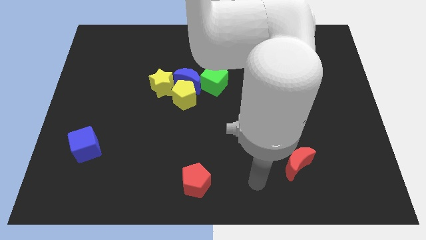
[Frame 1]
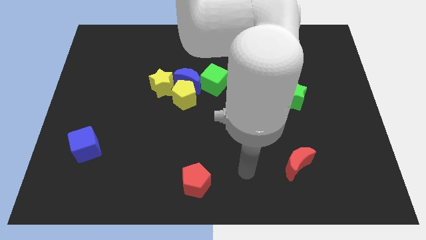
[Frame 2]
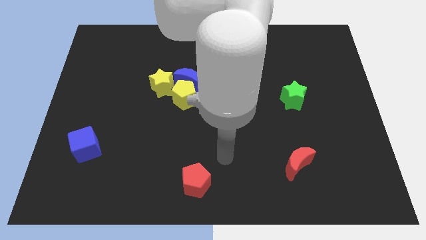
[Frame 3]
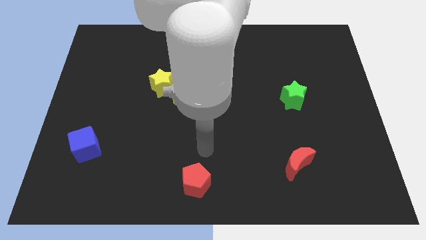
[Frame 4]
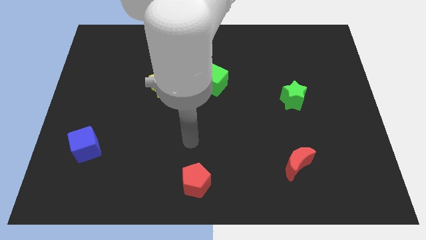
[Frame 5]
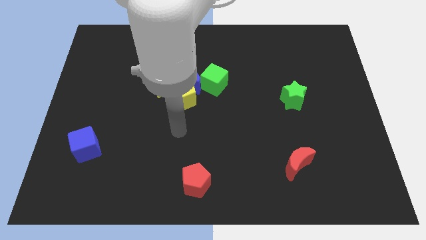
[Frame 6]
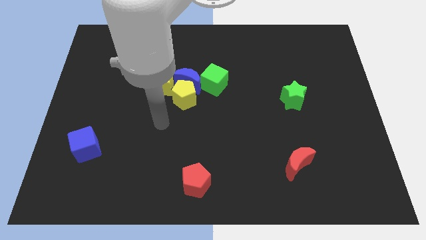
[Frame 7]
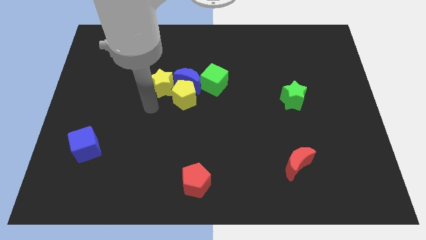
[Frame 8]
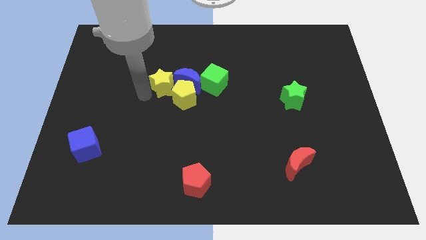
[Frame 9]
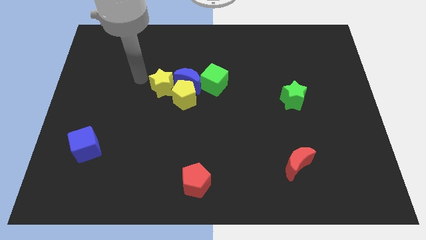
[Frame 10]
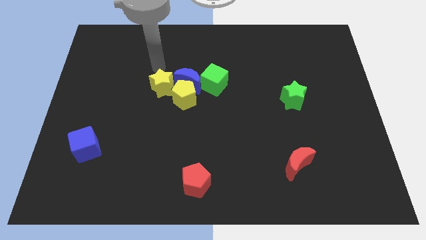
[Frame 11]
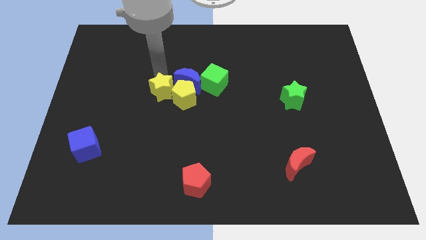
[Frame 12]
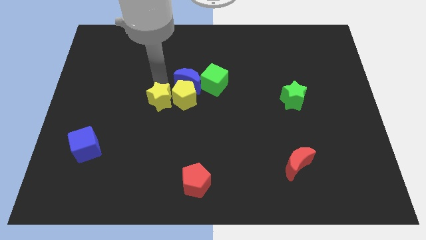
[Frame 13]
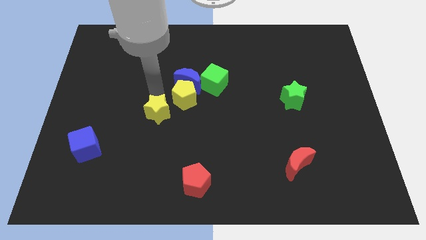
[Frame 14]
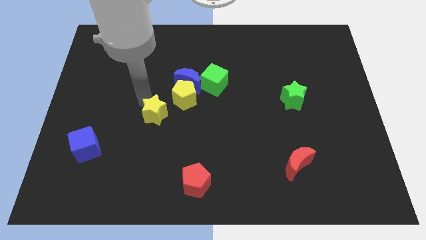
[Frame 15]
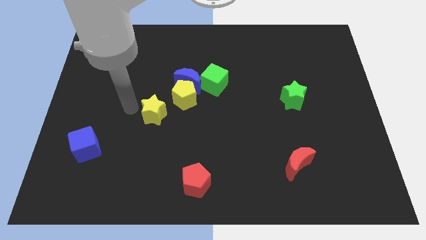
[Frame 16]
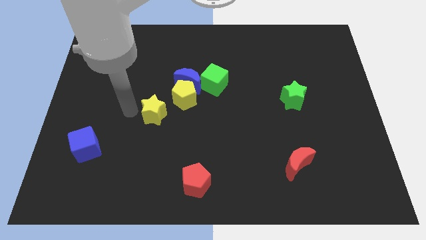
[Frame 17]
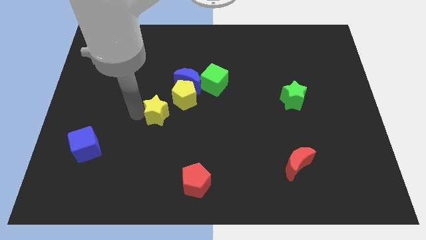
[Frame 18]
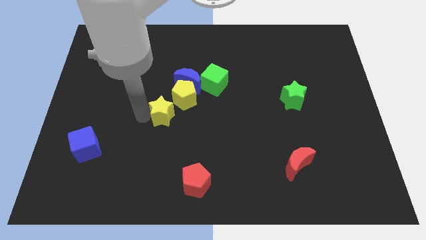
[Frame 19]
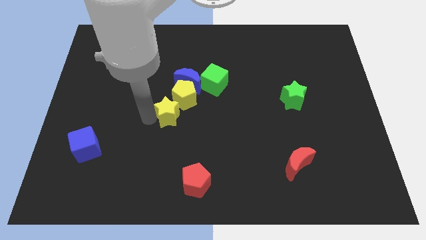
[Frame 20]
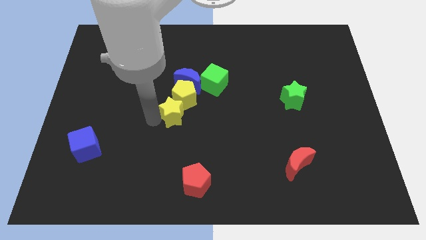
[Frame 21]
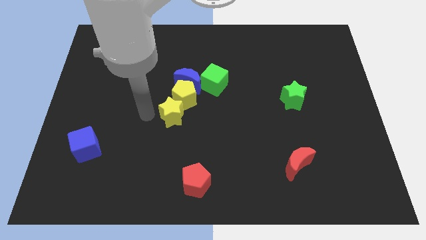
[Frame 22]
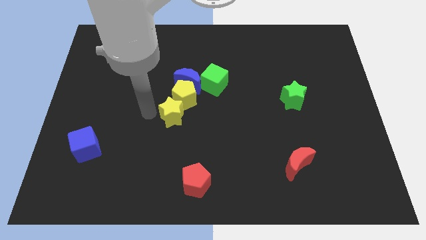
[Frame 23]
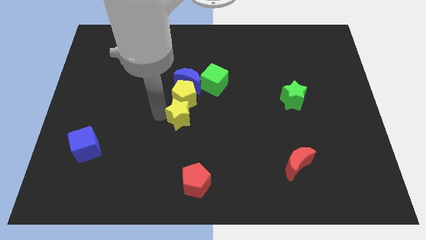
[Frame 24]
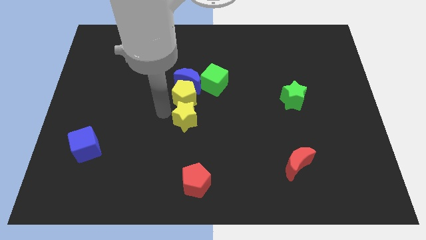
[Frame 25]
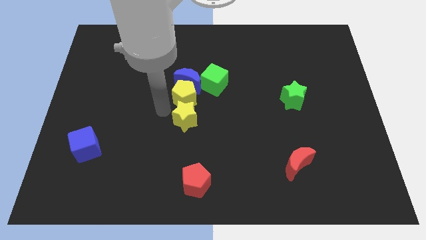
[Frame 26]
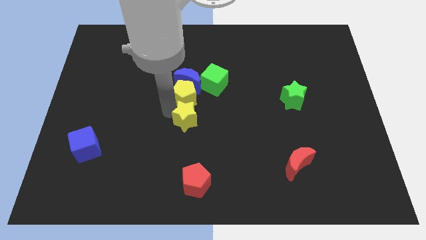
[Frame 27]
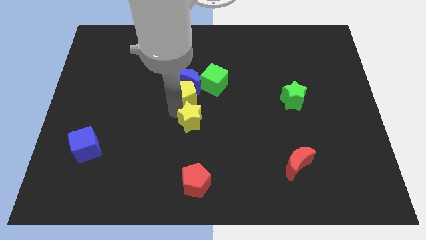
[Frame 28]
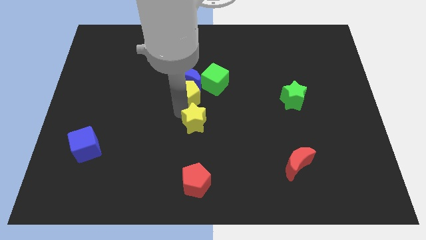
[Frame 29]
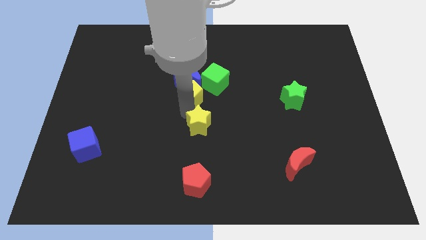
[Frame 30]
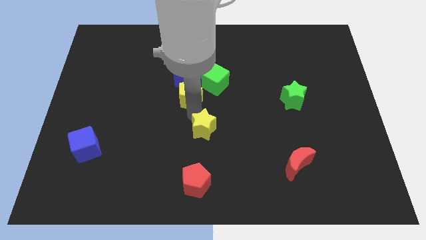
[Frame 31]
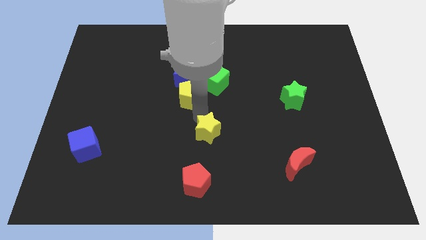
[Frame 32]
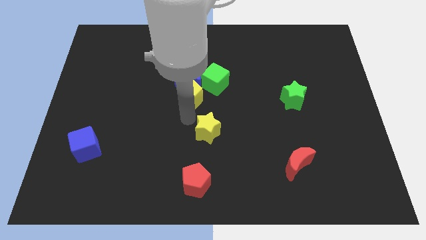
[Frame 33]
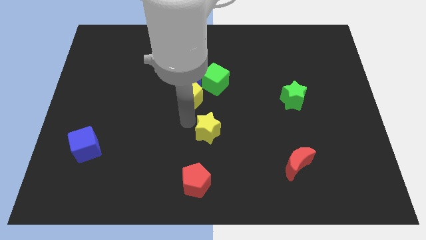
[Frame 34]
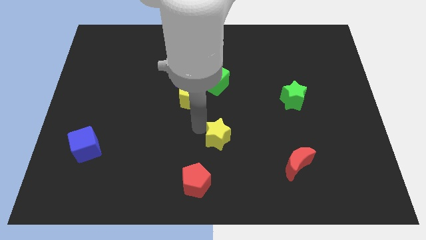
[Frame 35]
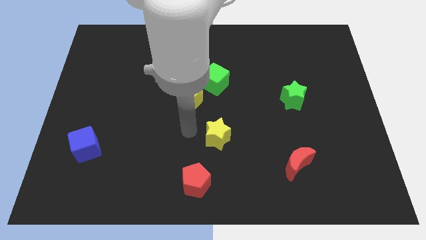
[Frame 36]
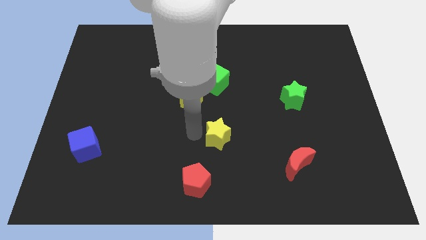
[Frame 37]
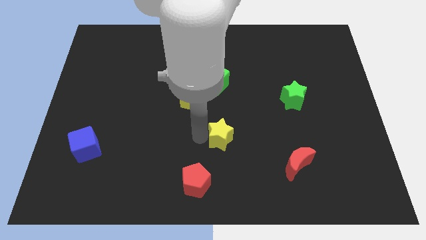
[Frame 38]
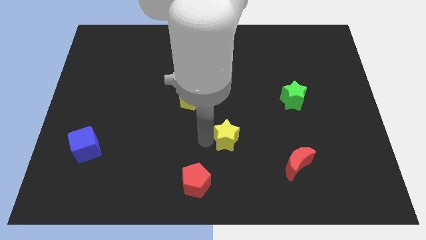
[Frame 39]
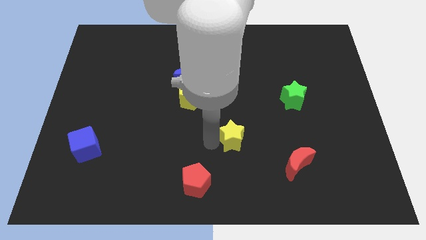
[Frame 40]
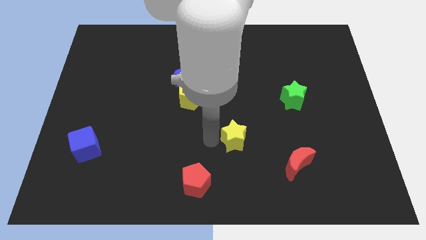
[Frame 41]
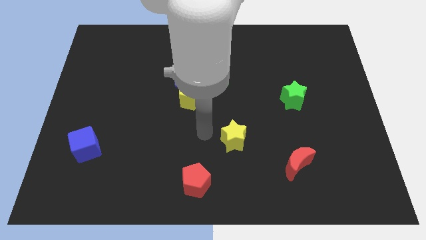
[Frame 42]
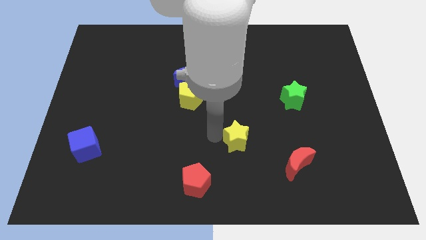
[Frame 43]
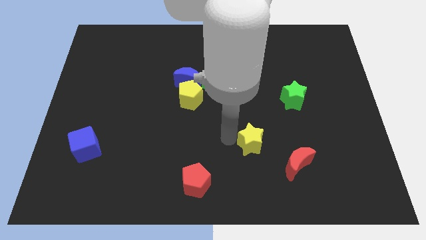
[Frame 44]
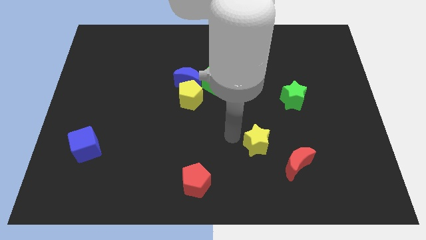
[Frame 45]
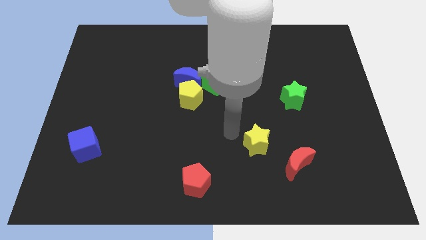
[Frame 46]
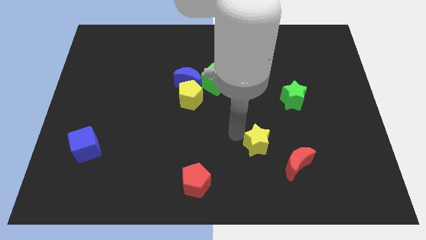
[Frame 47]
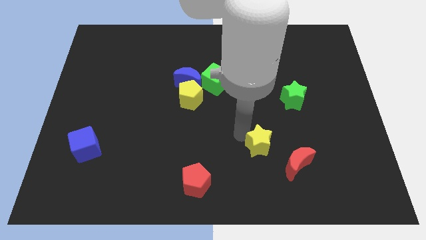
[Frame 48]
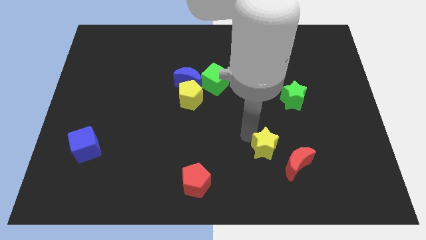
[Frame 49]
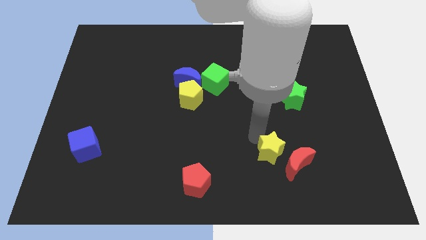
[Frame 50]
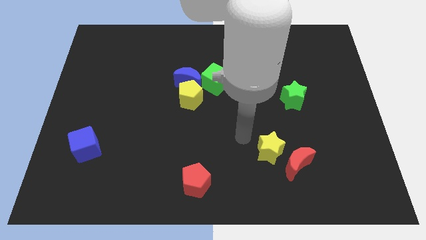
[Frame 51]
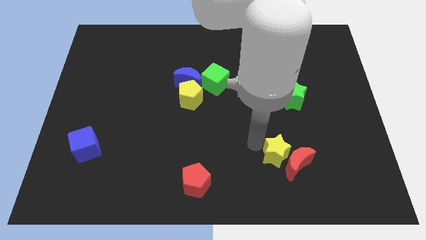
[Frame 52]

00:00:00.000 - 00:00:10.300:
push the yellow star close to the red moon

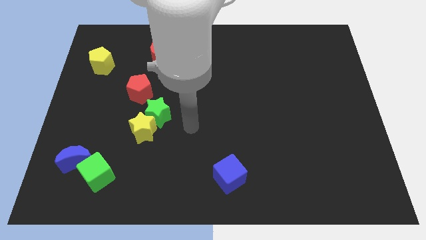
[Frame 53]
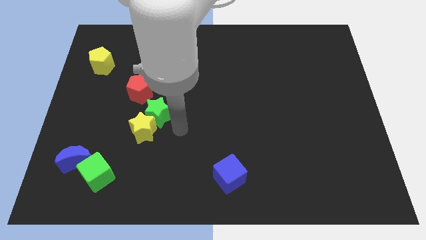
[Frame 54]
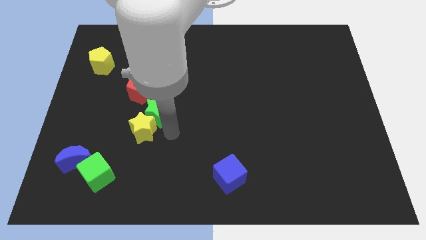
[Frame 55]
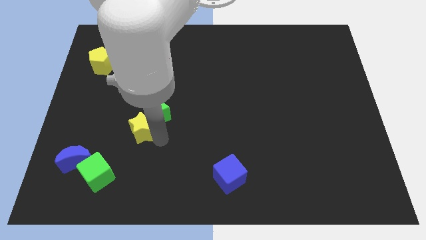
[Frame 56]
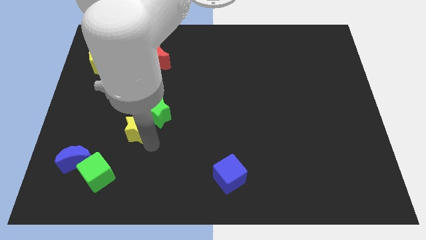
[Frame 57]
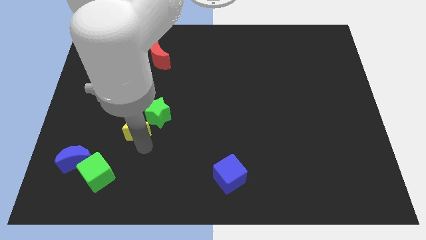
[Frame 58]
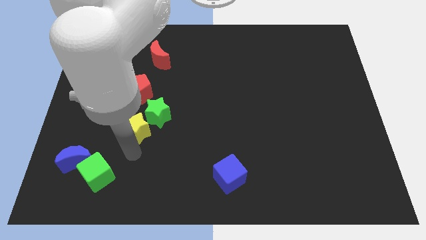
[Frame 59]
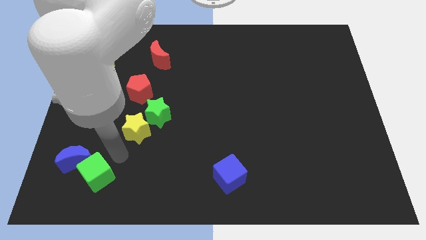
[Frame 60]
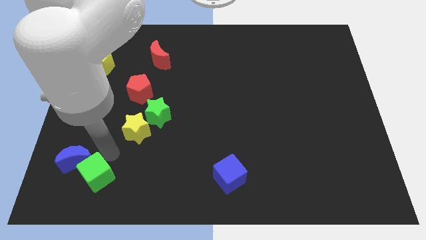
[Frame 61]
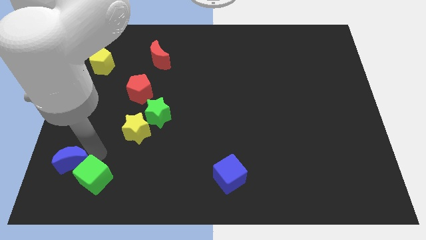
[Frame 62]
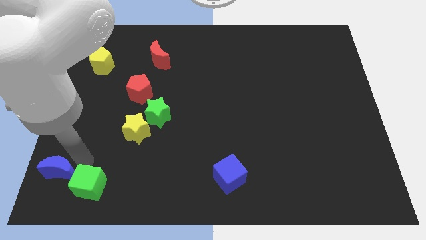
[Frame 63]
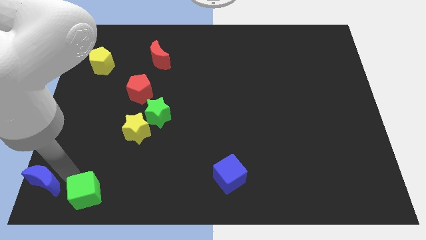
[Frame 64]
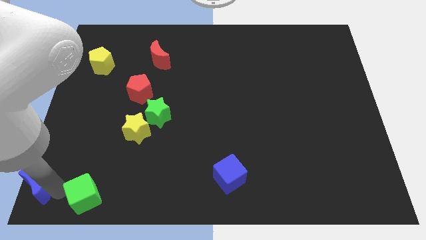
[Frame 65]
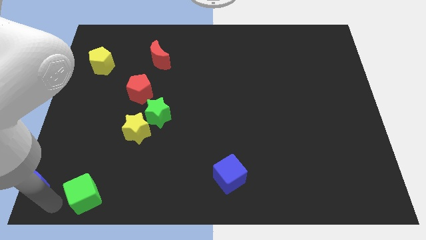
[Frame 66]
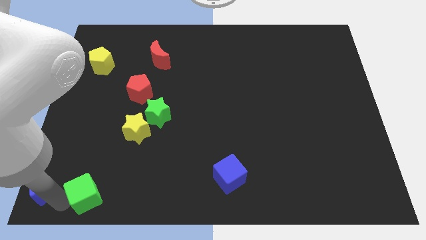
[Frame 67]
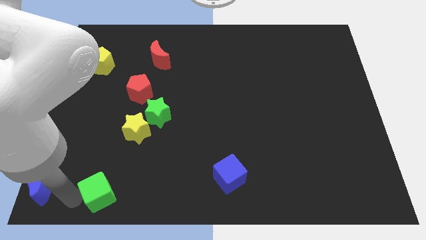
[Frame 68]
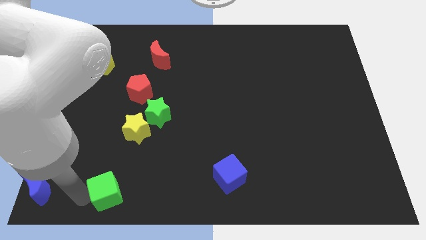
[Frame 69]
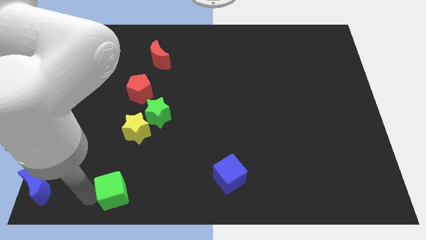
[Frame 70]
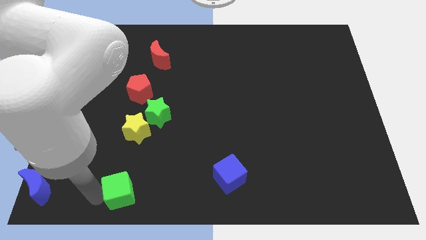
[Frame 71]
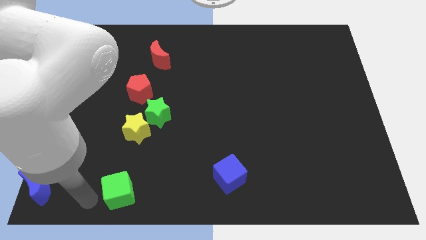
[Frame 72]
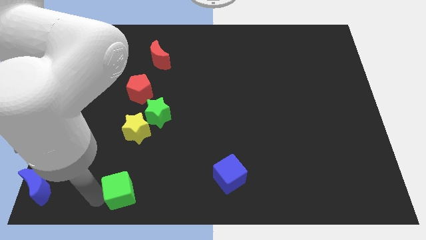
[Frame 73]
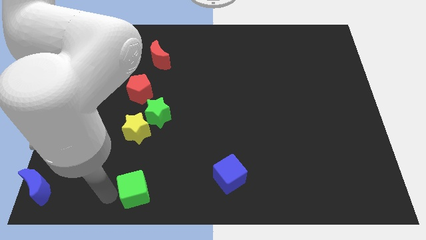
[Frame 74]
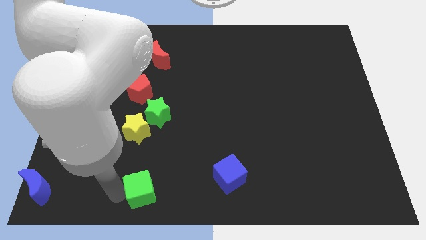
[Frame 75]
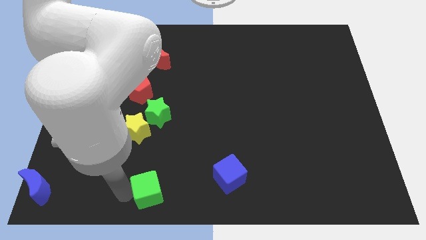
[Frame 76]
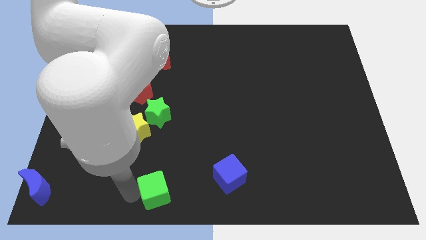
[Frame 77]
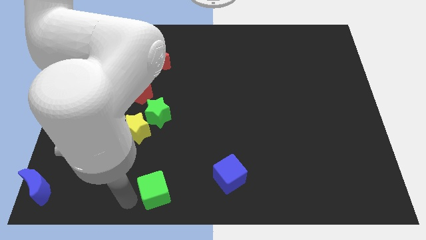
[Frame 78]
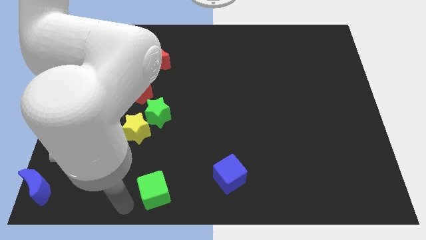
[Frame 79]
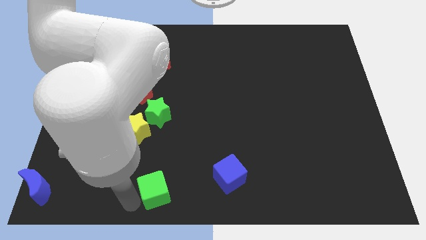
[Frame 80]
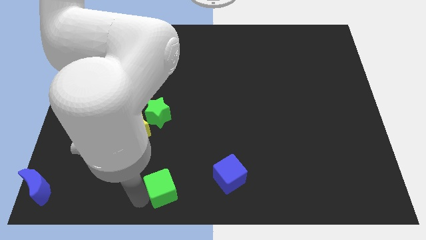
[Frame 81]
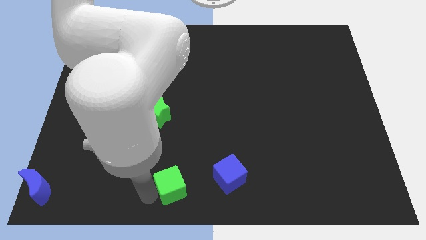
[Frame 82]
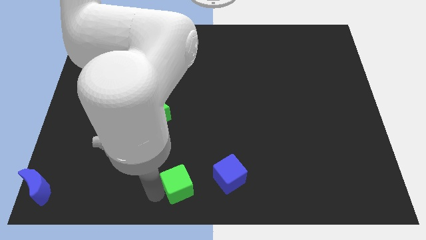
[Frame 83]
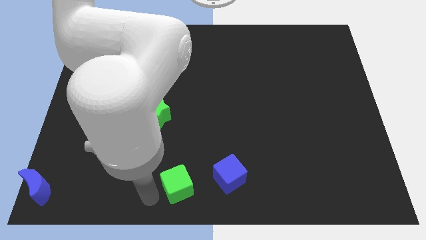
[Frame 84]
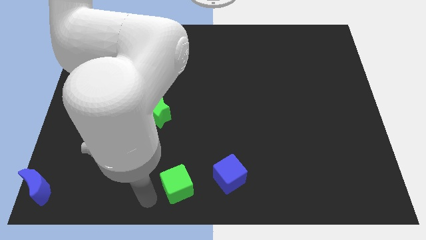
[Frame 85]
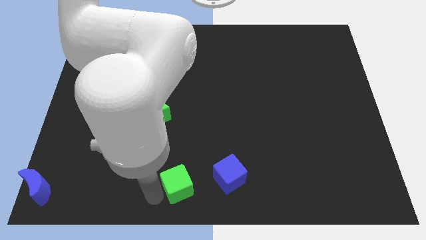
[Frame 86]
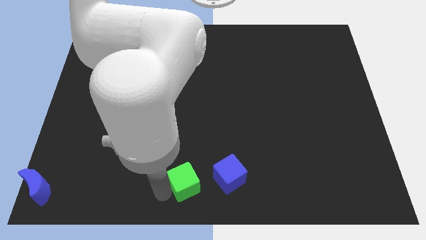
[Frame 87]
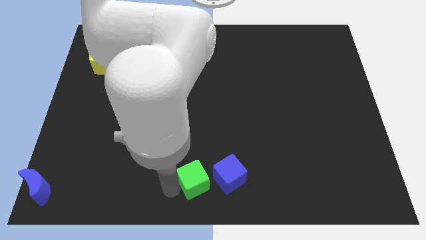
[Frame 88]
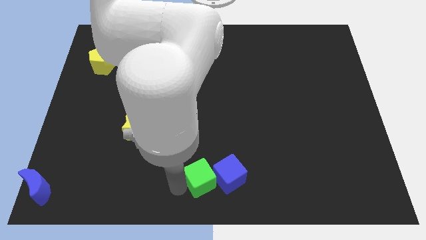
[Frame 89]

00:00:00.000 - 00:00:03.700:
push the green cube to the blue cube
